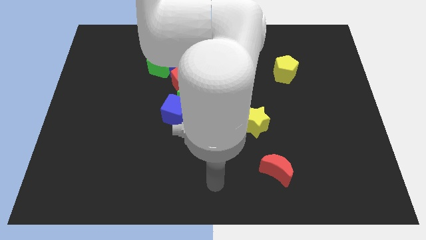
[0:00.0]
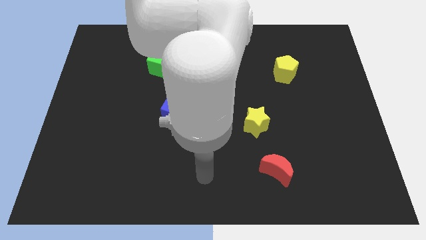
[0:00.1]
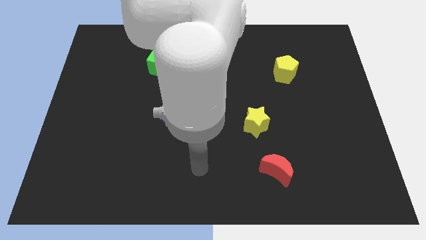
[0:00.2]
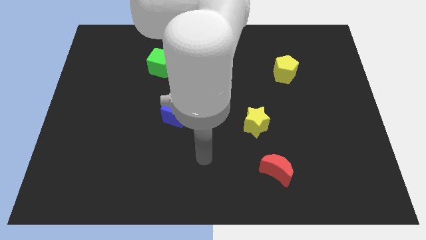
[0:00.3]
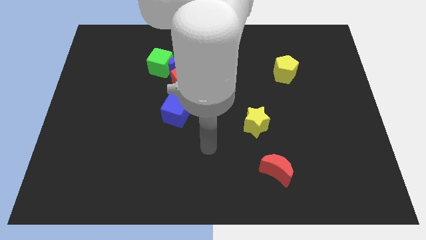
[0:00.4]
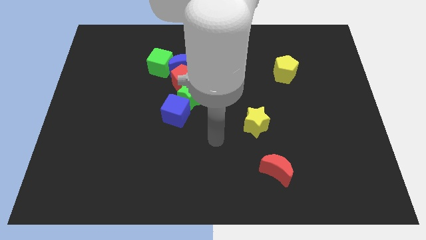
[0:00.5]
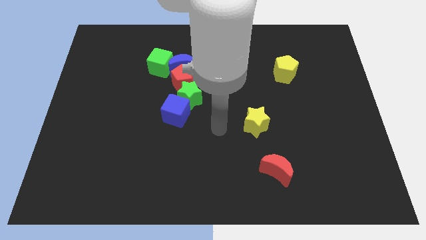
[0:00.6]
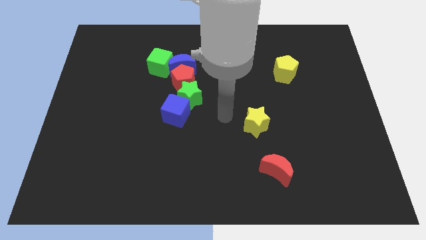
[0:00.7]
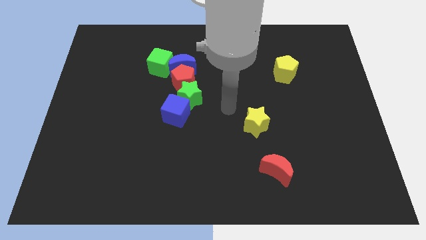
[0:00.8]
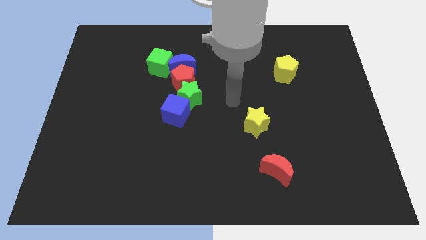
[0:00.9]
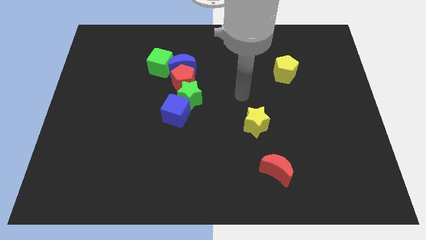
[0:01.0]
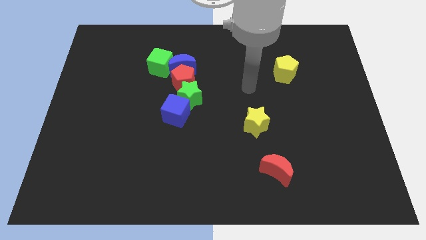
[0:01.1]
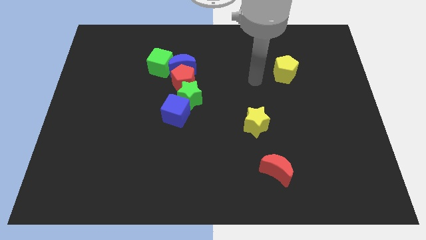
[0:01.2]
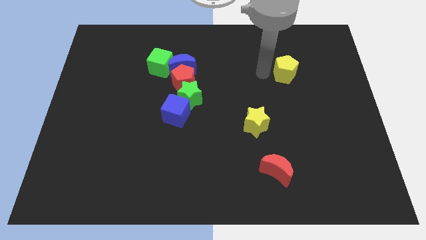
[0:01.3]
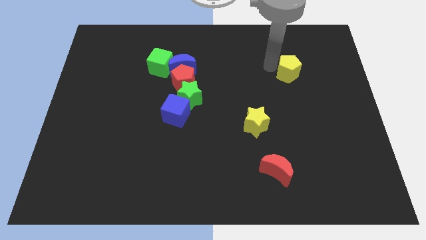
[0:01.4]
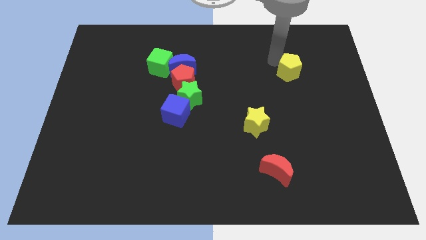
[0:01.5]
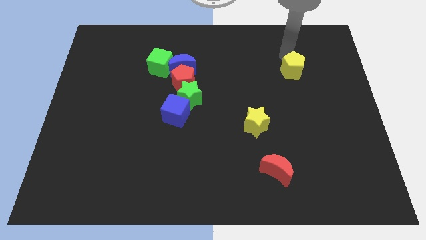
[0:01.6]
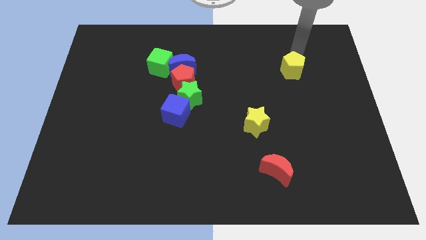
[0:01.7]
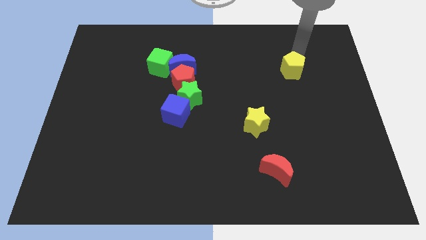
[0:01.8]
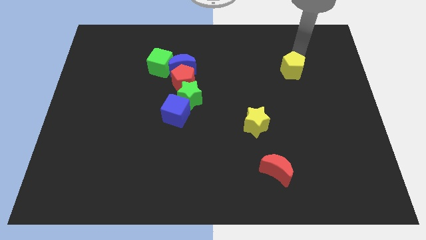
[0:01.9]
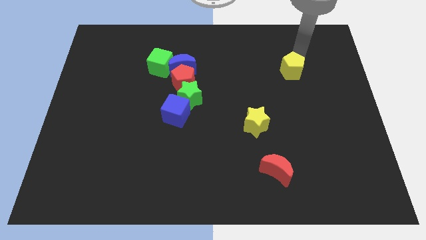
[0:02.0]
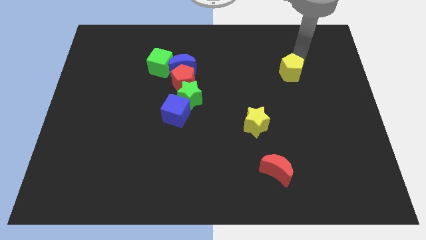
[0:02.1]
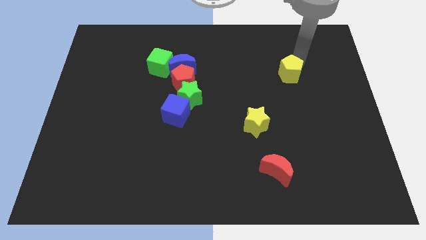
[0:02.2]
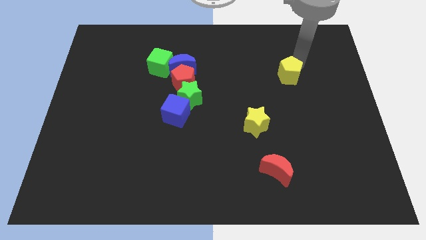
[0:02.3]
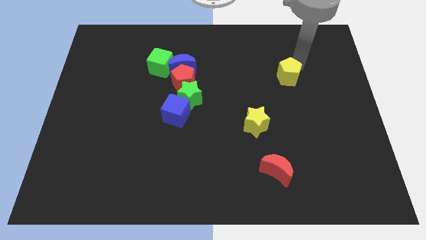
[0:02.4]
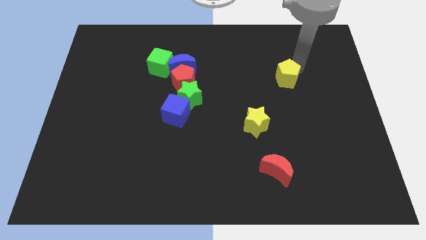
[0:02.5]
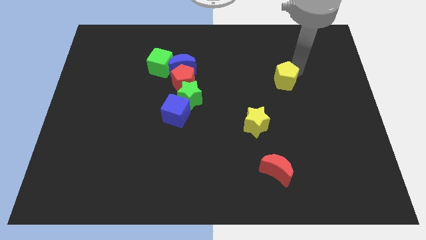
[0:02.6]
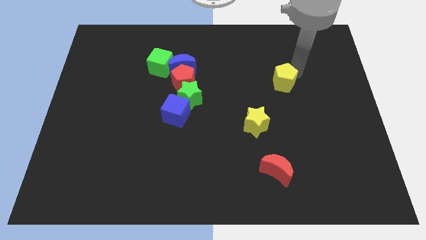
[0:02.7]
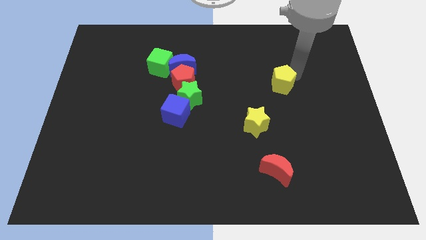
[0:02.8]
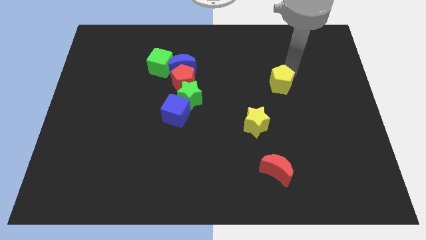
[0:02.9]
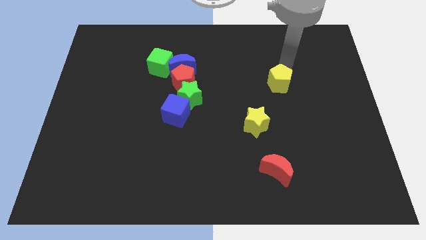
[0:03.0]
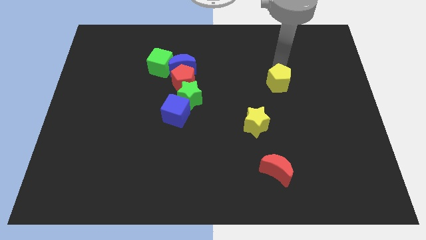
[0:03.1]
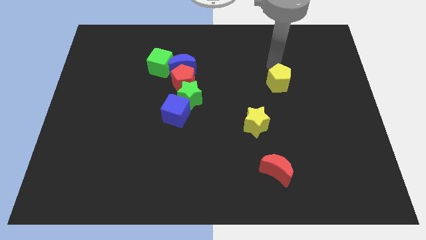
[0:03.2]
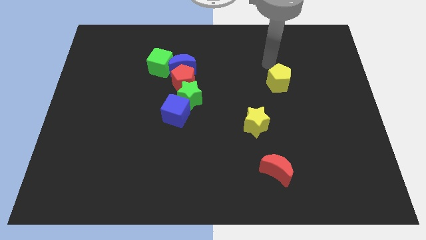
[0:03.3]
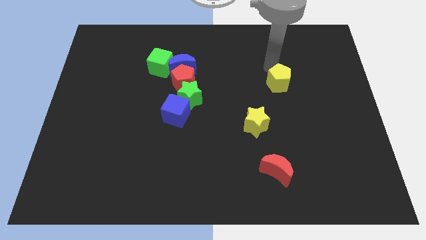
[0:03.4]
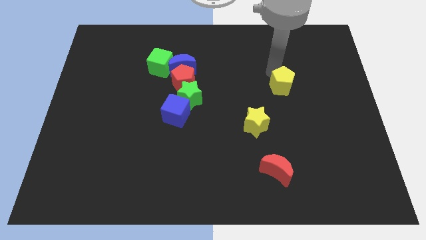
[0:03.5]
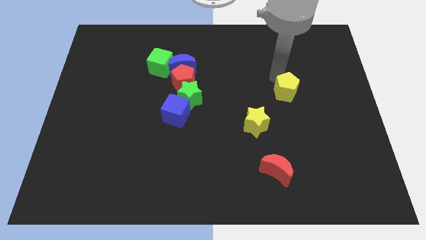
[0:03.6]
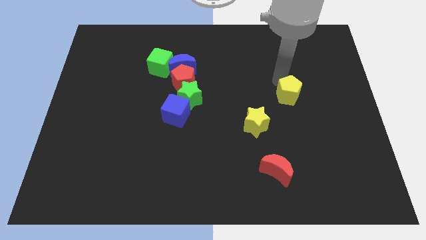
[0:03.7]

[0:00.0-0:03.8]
slightly slide the yellow pentagon down

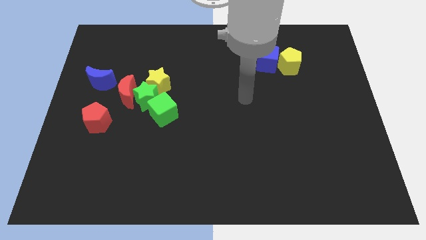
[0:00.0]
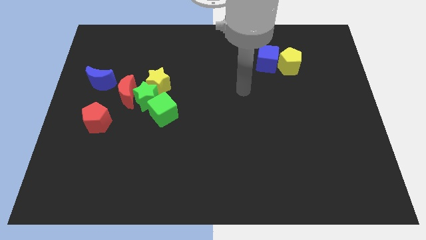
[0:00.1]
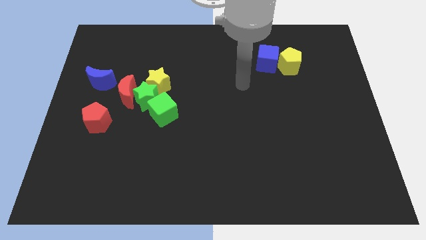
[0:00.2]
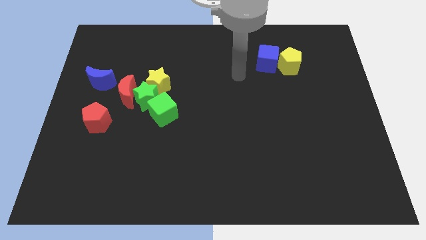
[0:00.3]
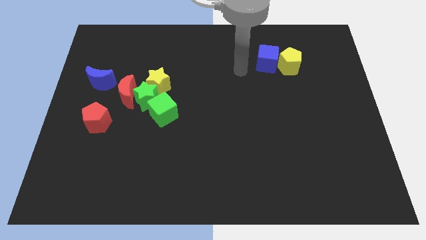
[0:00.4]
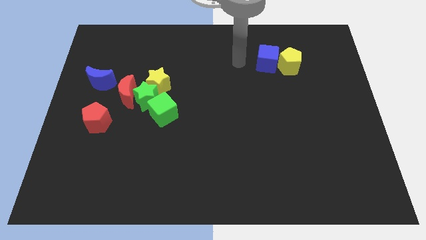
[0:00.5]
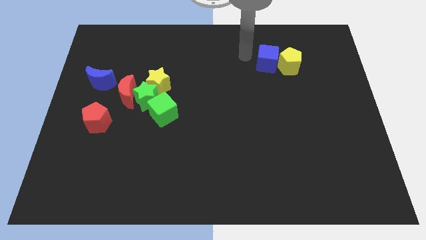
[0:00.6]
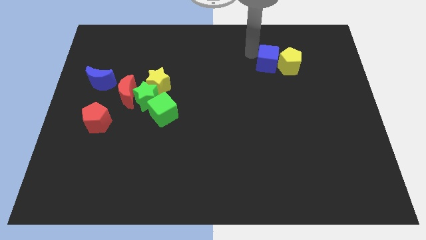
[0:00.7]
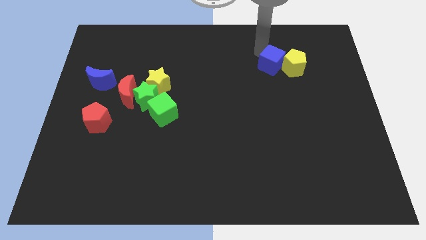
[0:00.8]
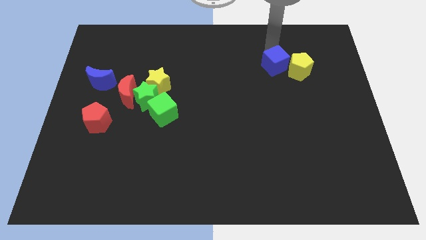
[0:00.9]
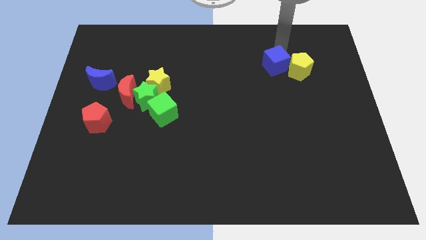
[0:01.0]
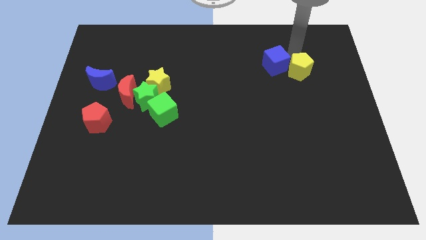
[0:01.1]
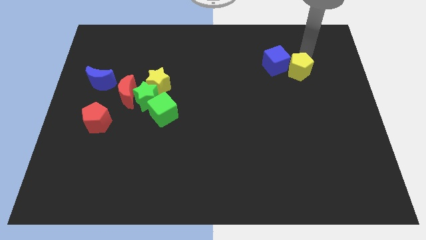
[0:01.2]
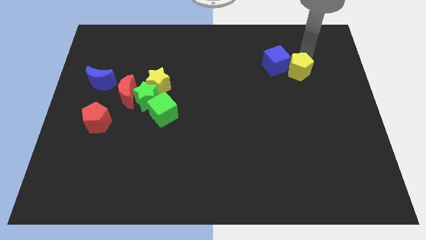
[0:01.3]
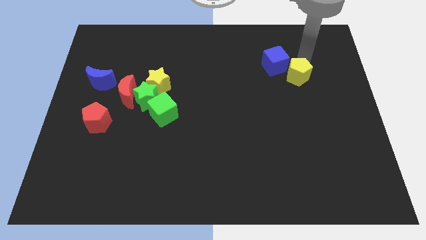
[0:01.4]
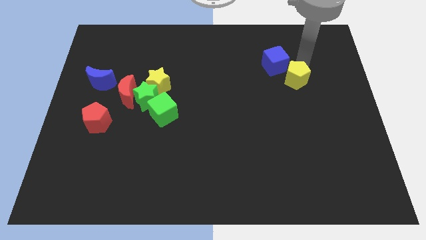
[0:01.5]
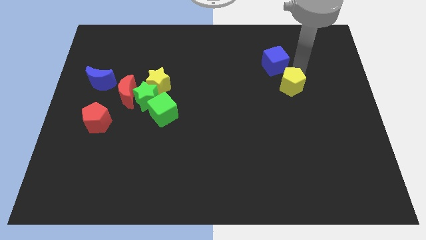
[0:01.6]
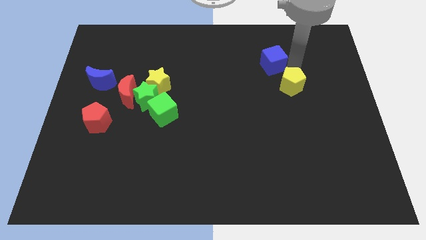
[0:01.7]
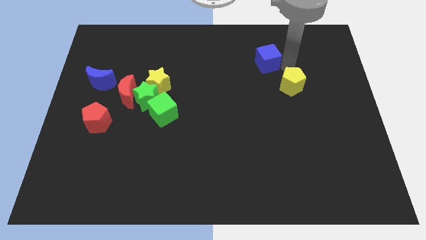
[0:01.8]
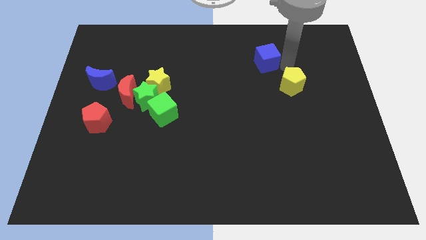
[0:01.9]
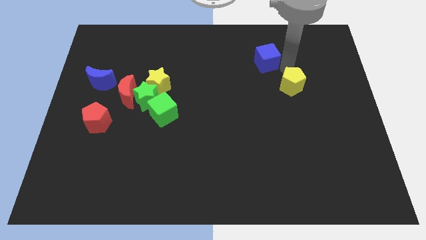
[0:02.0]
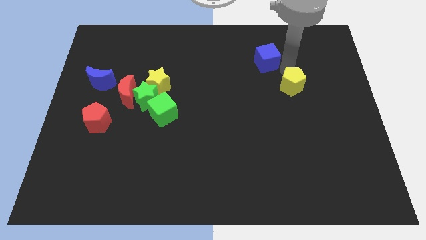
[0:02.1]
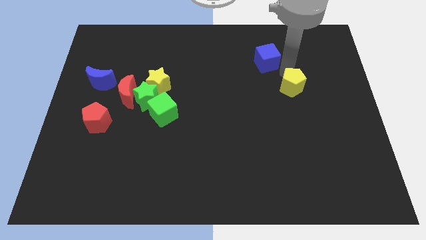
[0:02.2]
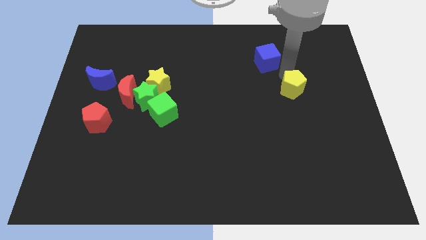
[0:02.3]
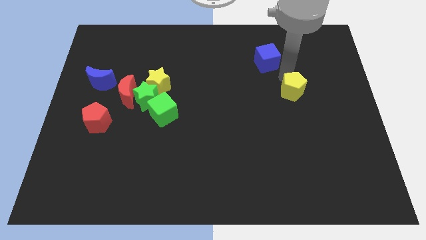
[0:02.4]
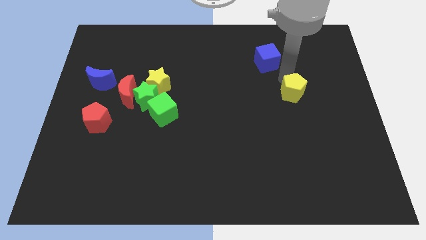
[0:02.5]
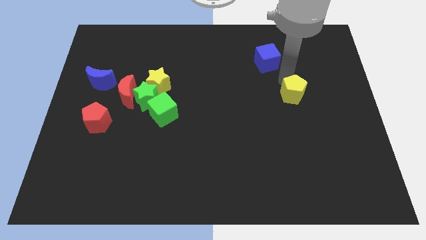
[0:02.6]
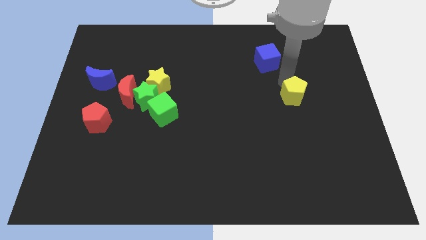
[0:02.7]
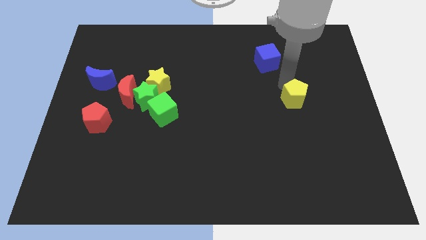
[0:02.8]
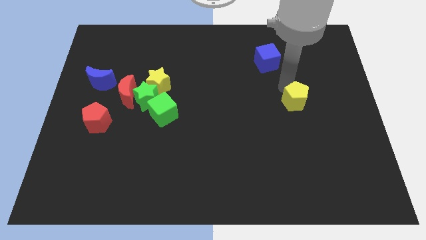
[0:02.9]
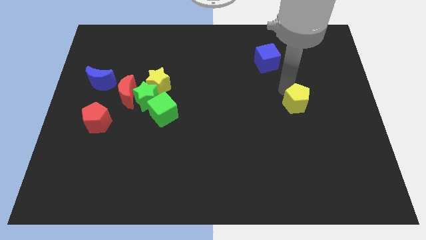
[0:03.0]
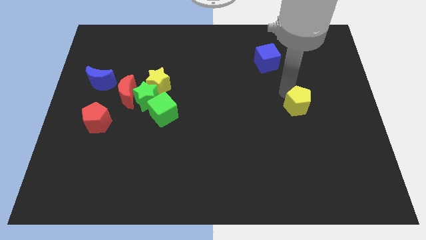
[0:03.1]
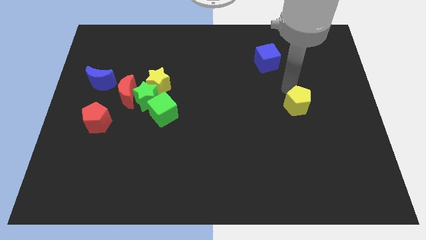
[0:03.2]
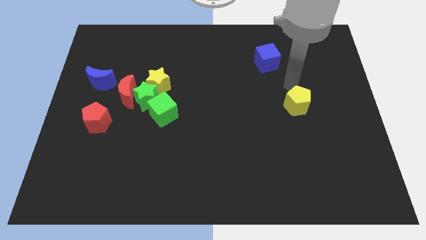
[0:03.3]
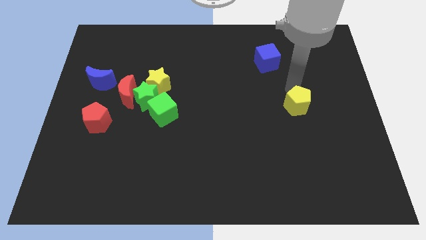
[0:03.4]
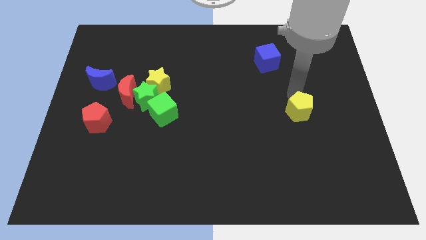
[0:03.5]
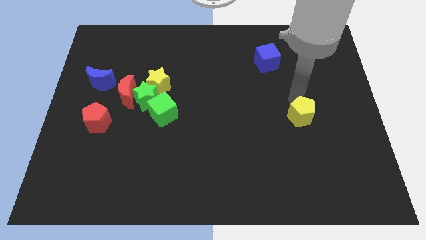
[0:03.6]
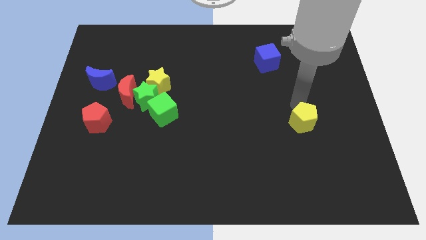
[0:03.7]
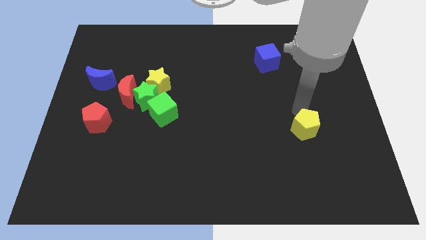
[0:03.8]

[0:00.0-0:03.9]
slide the yellow pentagon down
